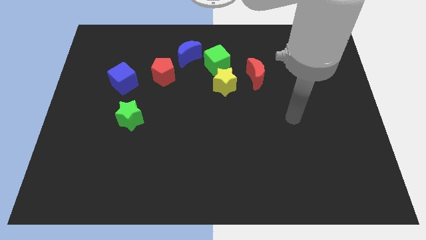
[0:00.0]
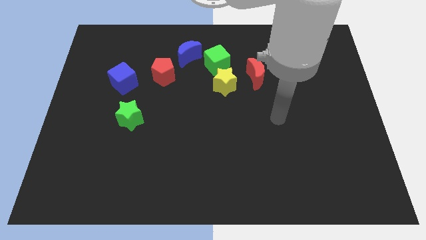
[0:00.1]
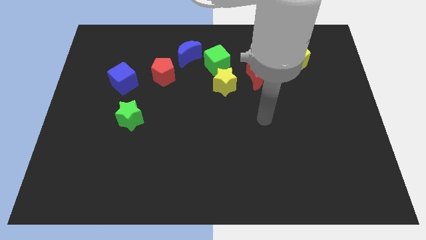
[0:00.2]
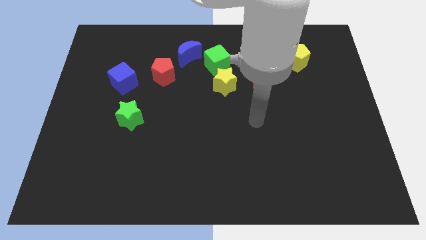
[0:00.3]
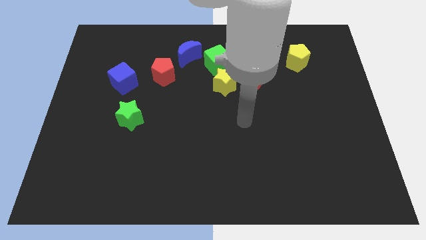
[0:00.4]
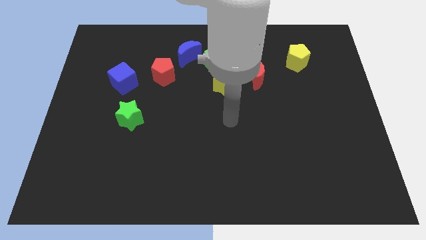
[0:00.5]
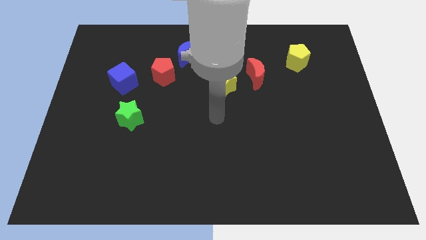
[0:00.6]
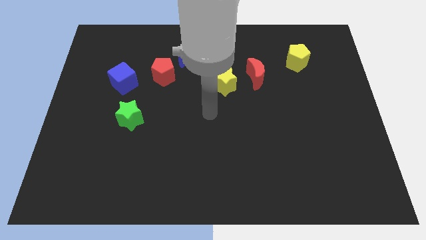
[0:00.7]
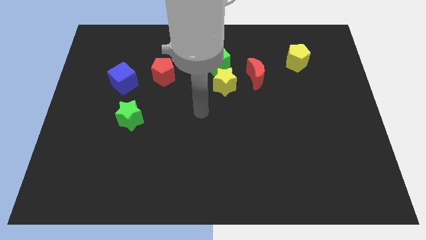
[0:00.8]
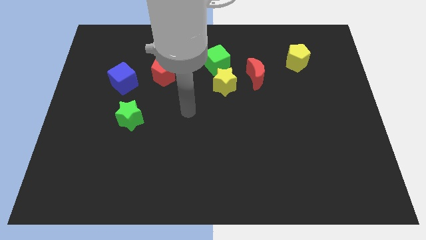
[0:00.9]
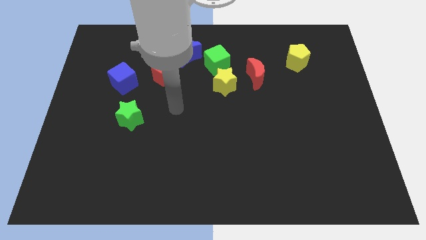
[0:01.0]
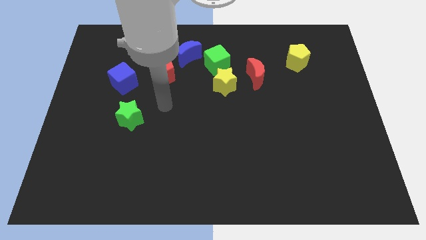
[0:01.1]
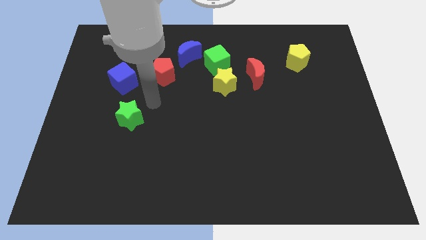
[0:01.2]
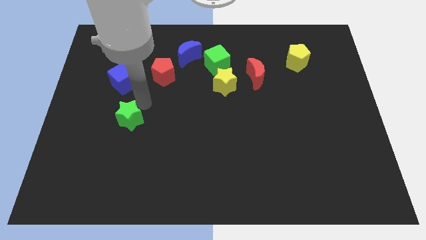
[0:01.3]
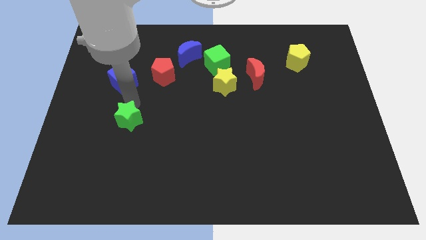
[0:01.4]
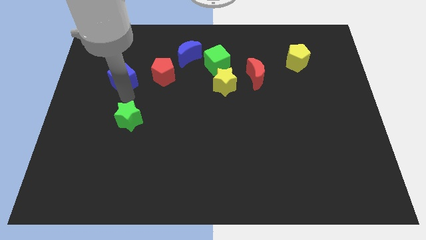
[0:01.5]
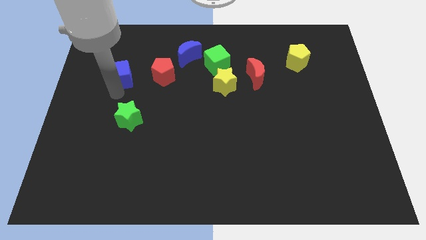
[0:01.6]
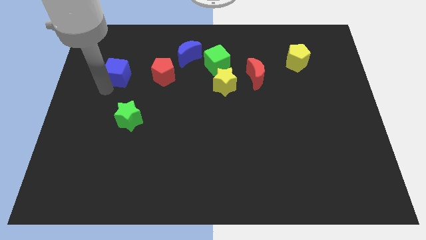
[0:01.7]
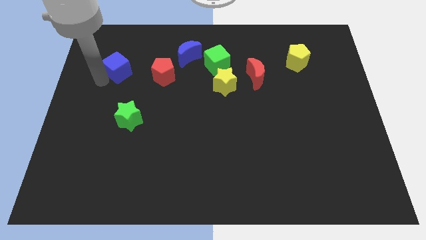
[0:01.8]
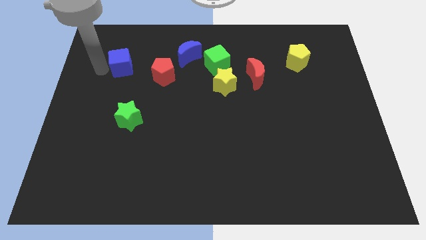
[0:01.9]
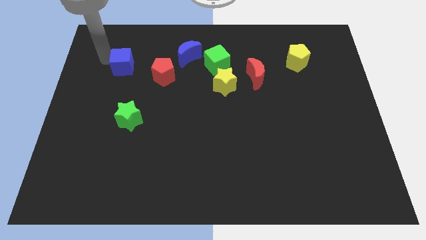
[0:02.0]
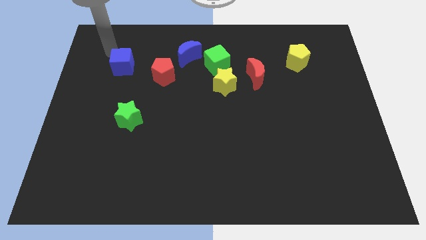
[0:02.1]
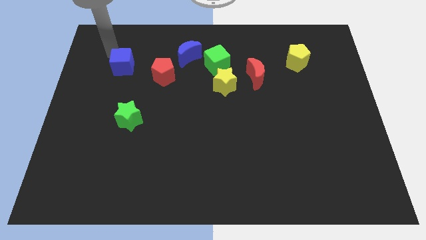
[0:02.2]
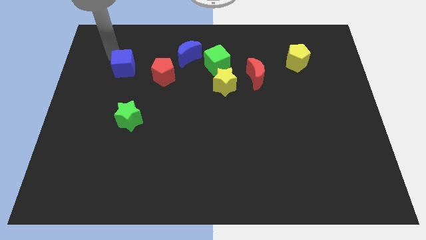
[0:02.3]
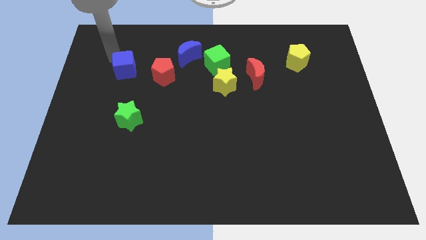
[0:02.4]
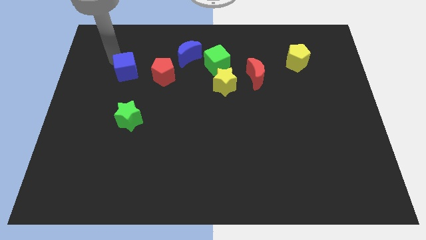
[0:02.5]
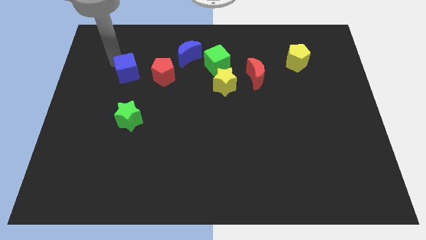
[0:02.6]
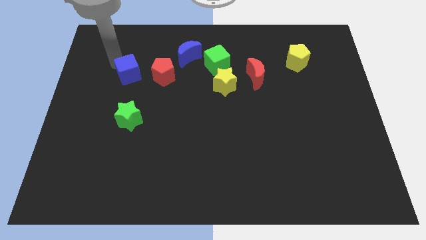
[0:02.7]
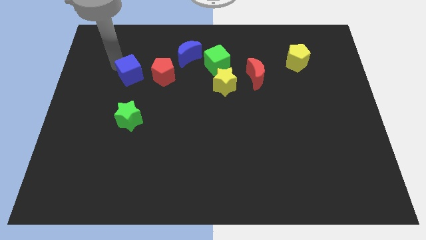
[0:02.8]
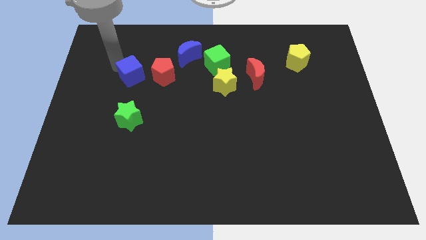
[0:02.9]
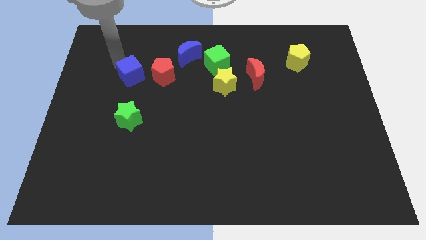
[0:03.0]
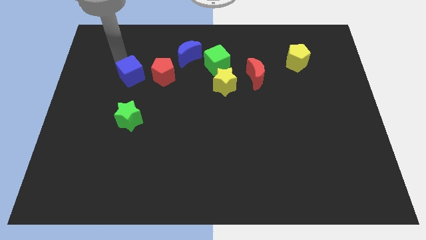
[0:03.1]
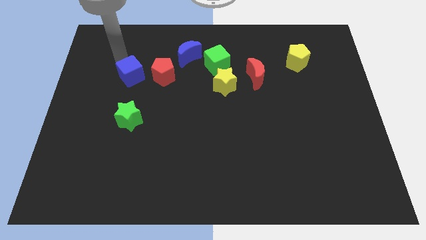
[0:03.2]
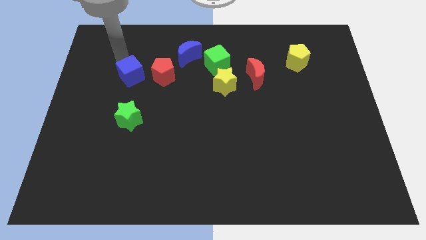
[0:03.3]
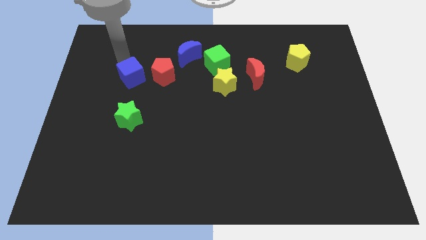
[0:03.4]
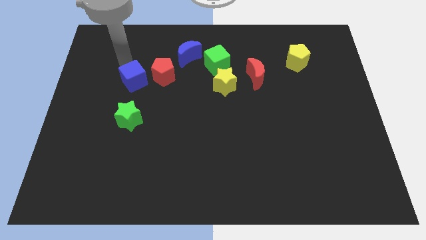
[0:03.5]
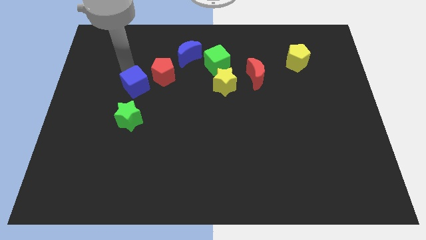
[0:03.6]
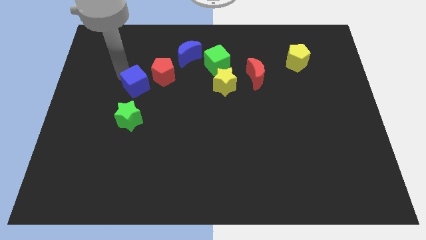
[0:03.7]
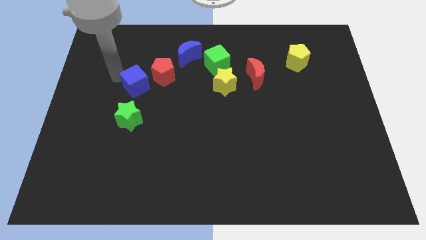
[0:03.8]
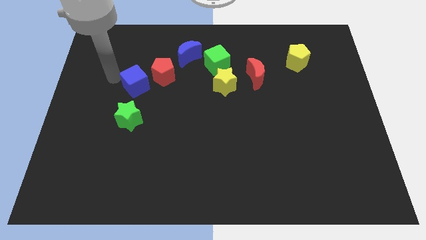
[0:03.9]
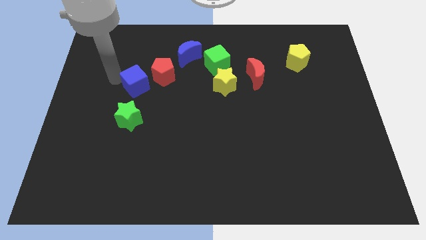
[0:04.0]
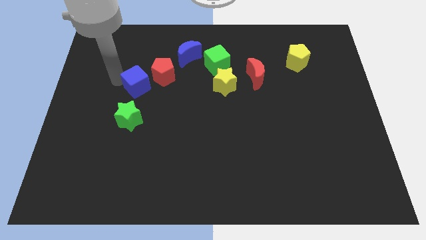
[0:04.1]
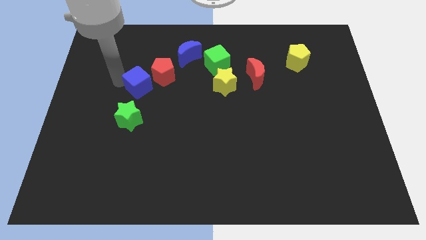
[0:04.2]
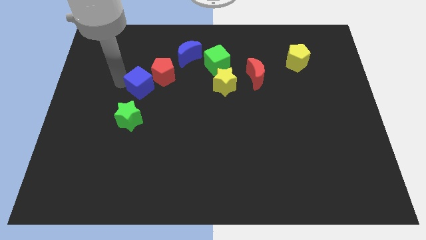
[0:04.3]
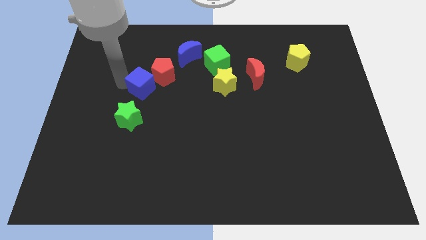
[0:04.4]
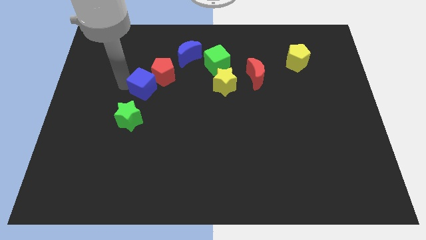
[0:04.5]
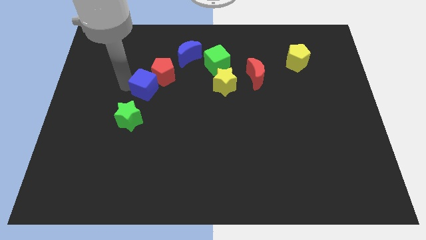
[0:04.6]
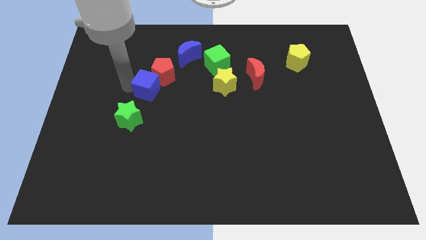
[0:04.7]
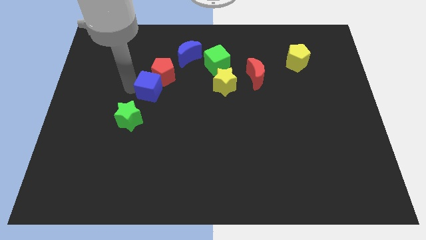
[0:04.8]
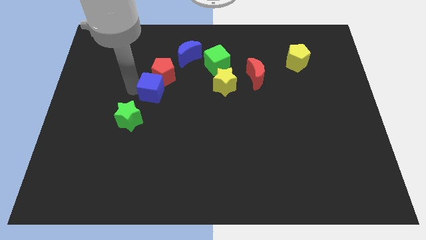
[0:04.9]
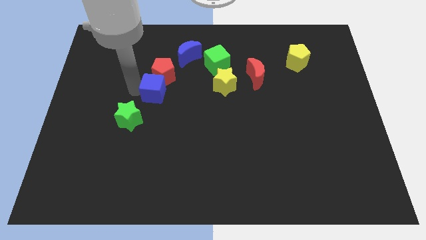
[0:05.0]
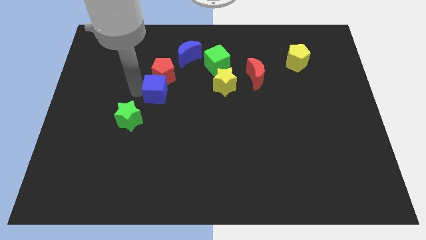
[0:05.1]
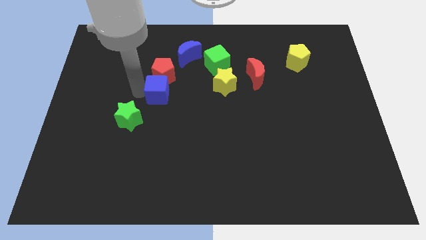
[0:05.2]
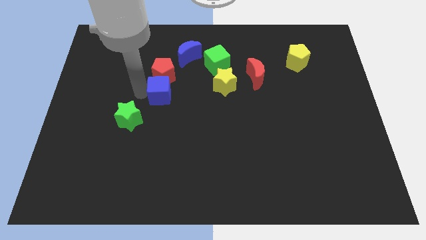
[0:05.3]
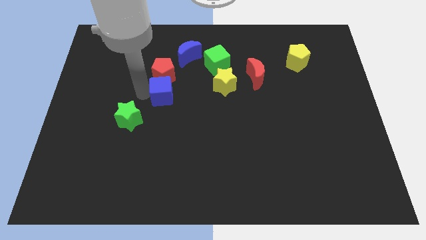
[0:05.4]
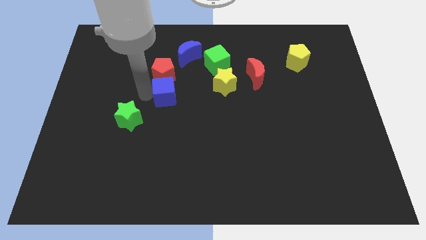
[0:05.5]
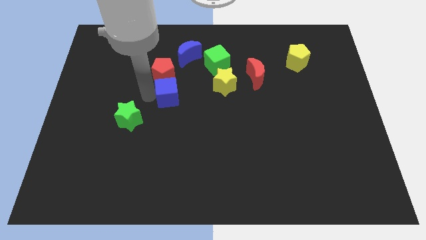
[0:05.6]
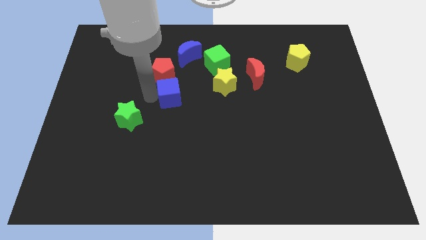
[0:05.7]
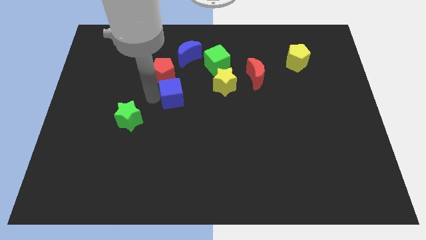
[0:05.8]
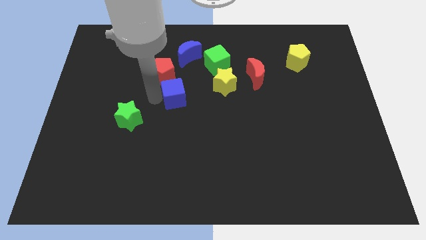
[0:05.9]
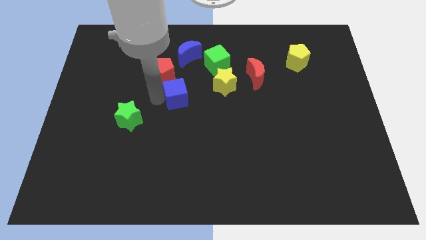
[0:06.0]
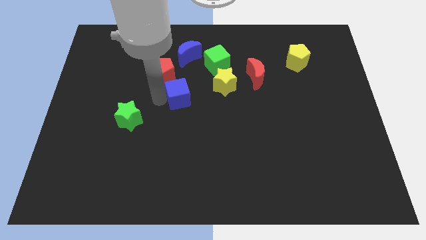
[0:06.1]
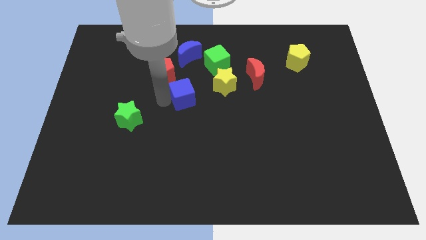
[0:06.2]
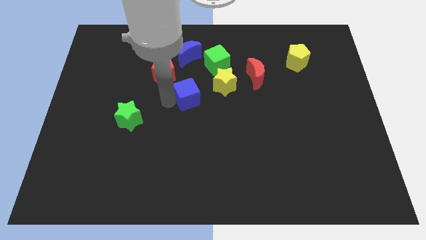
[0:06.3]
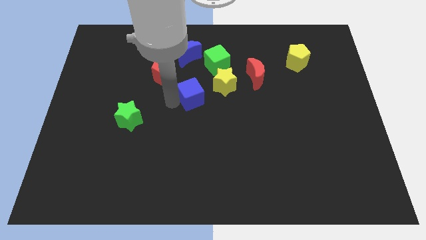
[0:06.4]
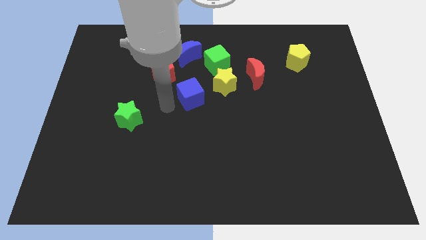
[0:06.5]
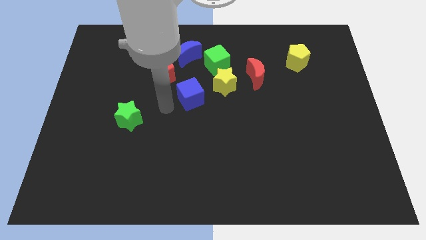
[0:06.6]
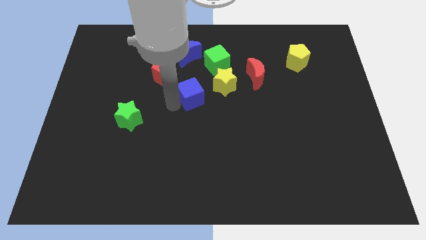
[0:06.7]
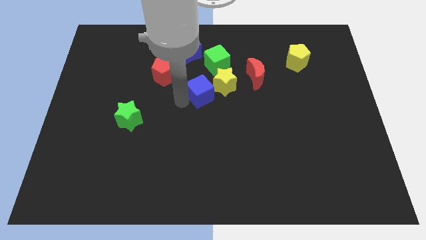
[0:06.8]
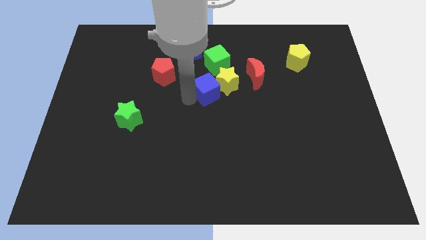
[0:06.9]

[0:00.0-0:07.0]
put the blue cube to the yellow star
